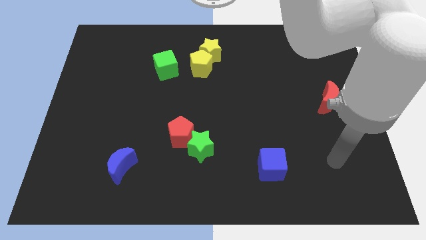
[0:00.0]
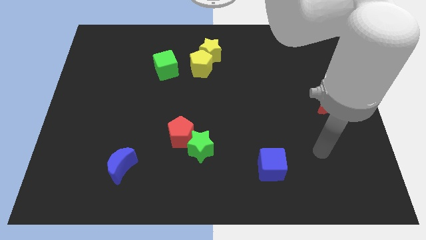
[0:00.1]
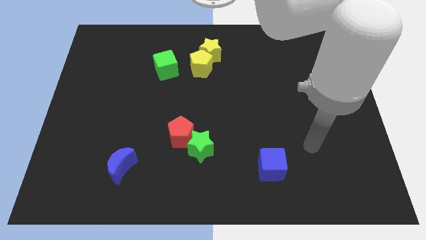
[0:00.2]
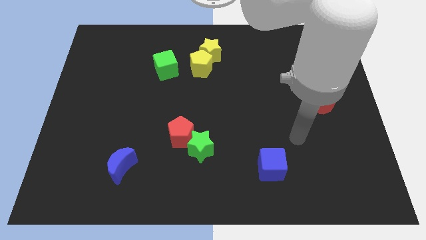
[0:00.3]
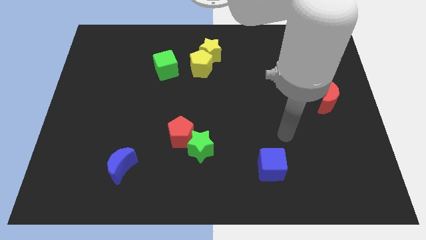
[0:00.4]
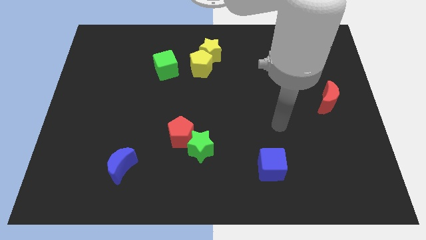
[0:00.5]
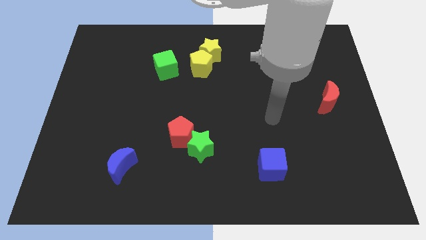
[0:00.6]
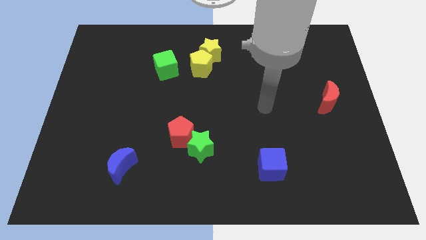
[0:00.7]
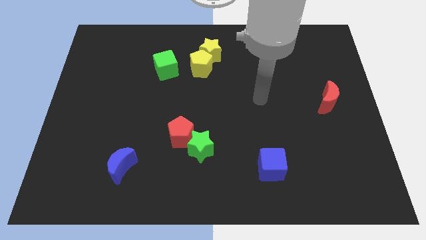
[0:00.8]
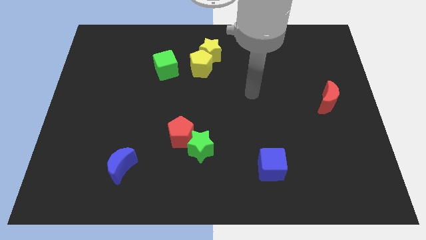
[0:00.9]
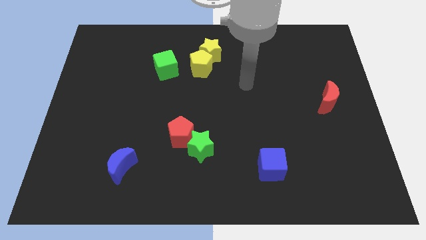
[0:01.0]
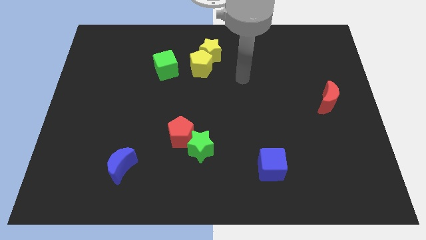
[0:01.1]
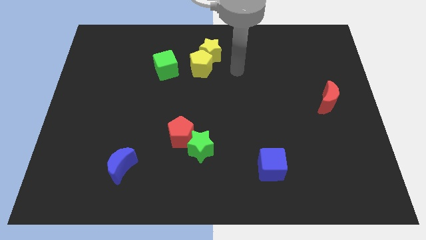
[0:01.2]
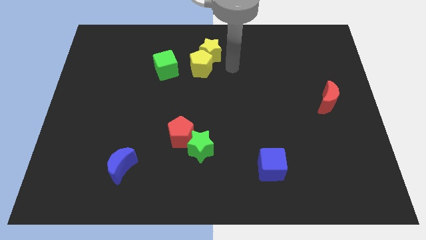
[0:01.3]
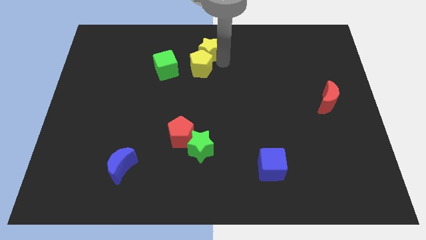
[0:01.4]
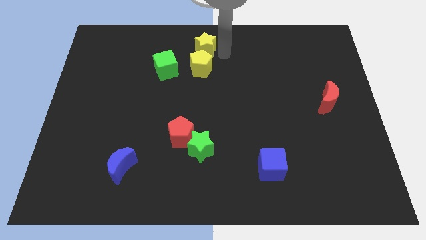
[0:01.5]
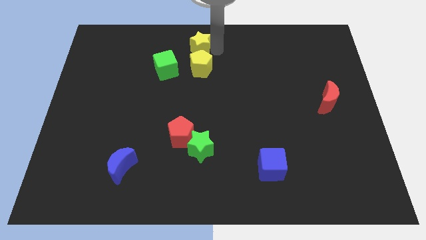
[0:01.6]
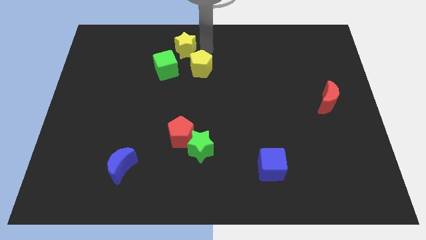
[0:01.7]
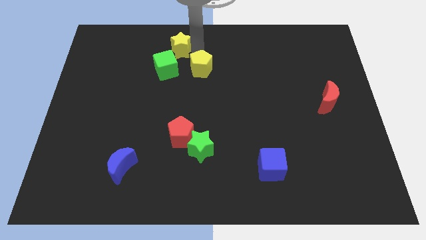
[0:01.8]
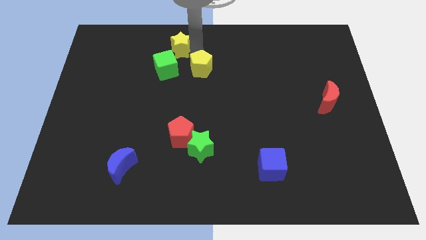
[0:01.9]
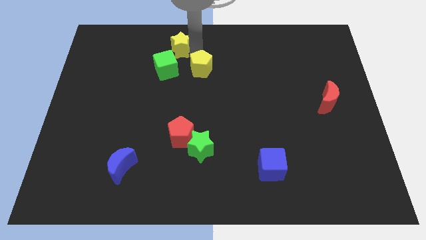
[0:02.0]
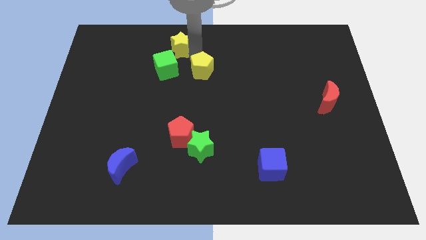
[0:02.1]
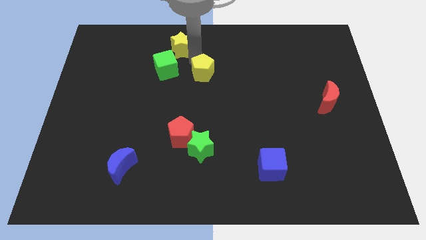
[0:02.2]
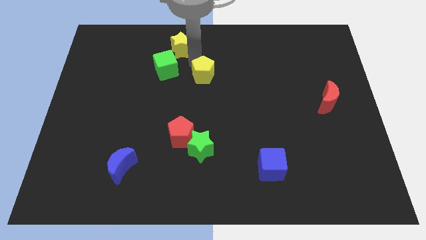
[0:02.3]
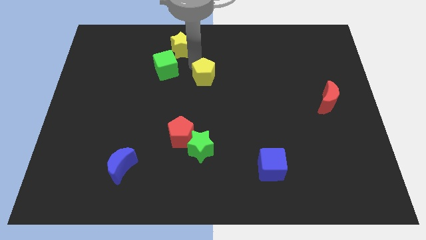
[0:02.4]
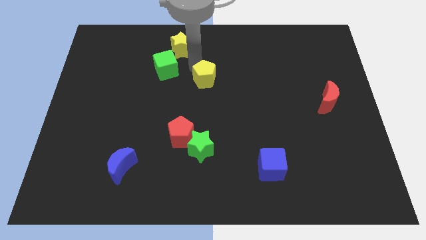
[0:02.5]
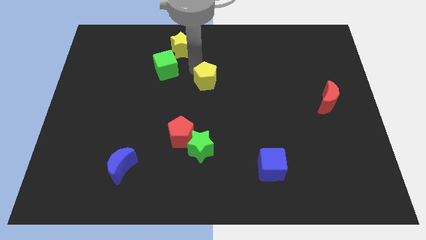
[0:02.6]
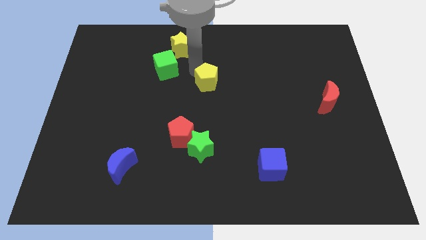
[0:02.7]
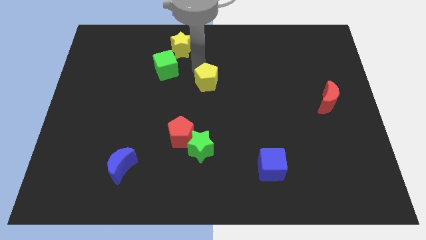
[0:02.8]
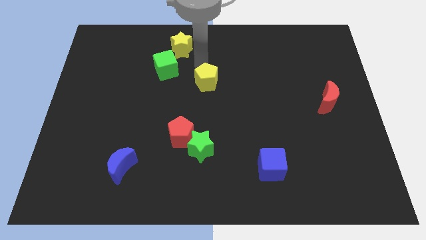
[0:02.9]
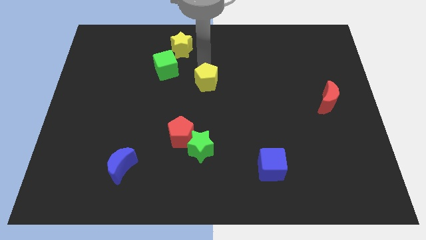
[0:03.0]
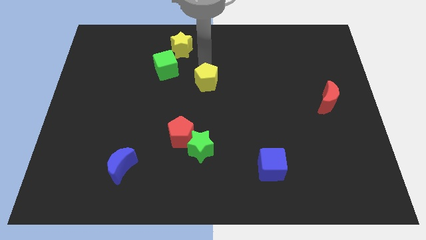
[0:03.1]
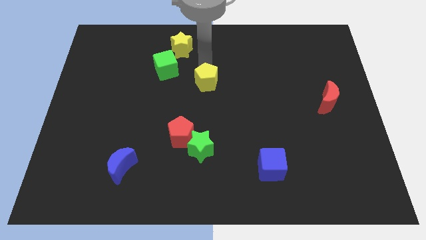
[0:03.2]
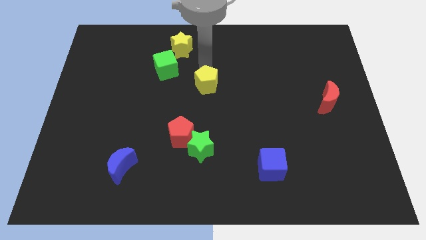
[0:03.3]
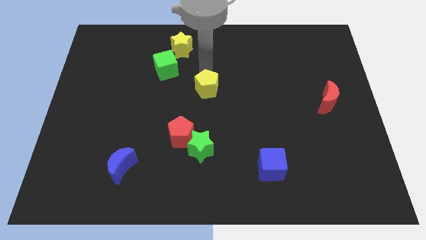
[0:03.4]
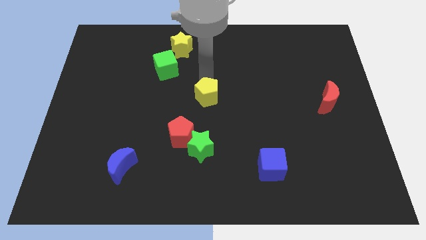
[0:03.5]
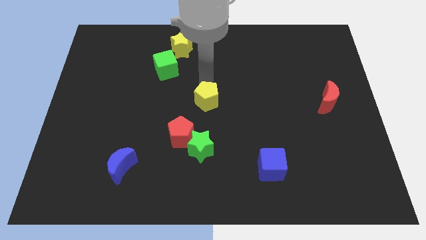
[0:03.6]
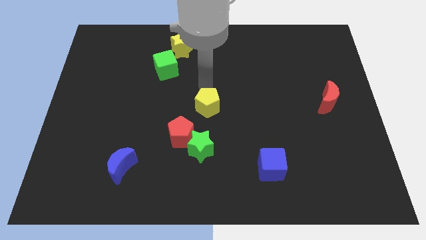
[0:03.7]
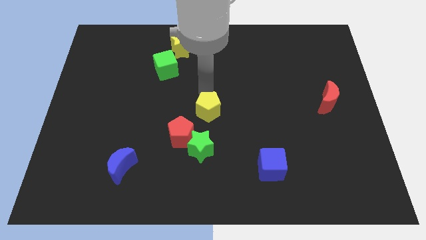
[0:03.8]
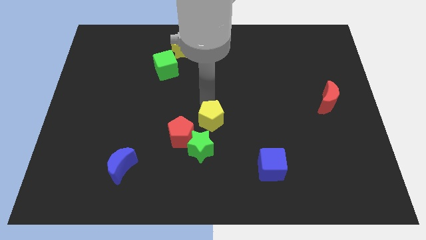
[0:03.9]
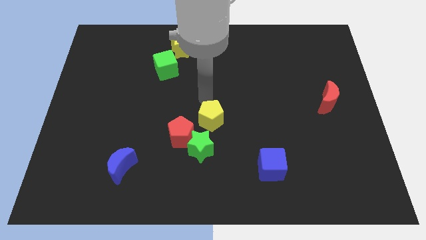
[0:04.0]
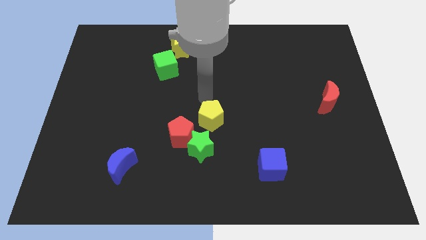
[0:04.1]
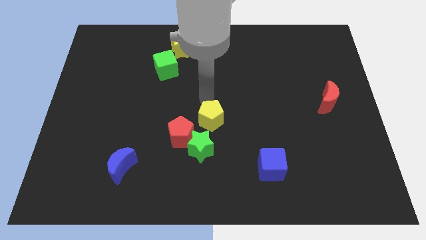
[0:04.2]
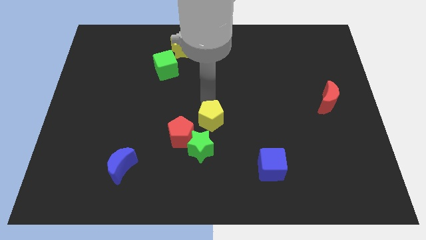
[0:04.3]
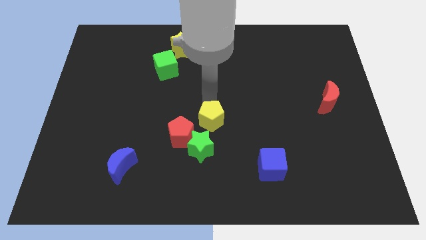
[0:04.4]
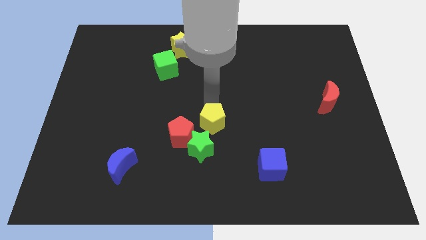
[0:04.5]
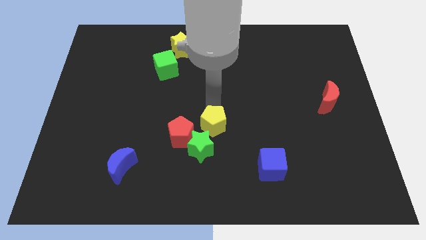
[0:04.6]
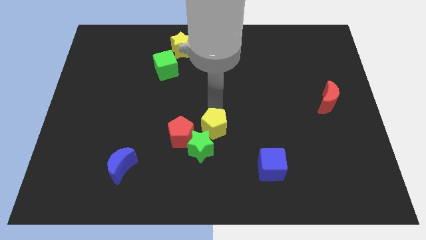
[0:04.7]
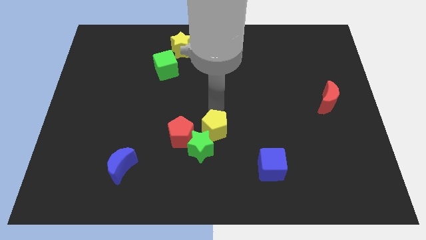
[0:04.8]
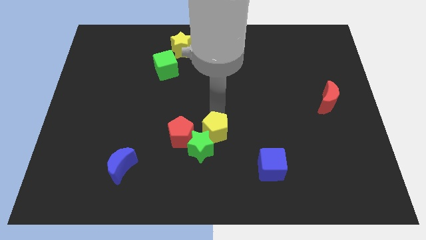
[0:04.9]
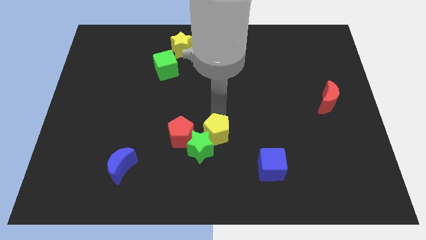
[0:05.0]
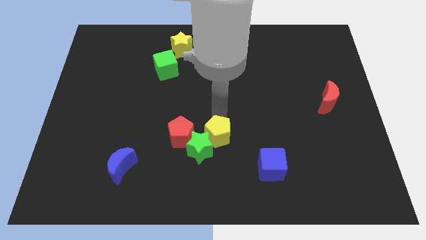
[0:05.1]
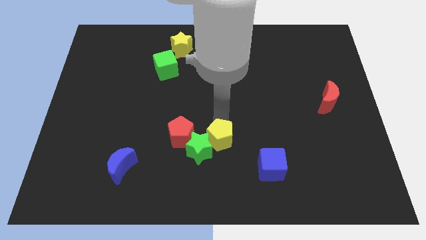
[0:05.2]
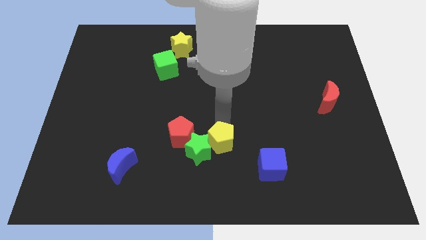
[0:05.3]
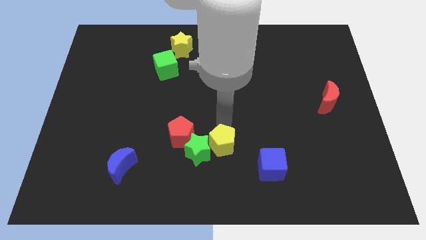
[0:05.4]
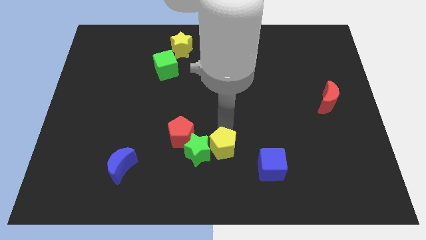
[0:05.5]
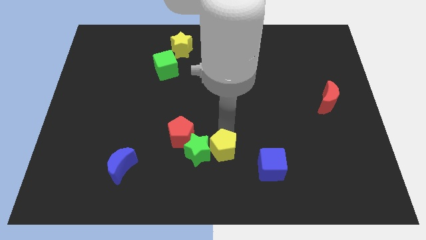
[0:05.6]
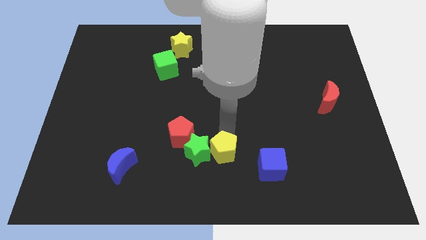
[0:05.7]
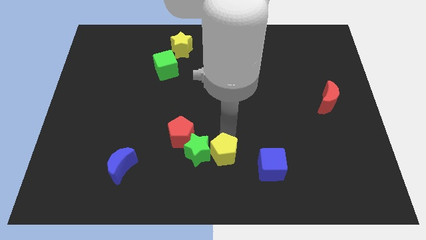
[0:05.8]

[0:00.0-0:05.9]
slide the yellow pentagon to the bottom side
